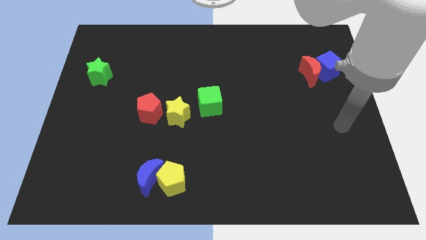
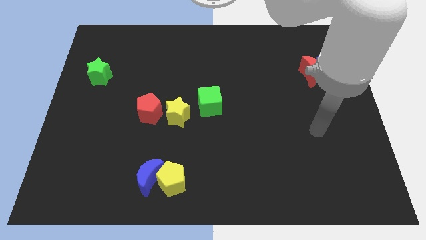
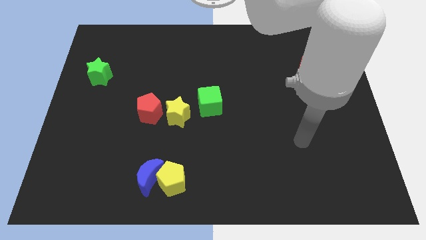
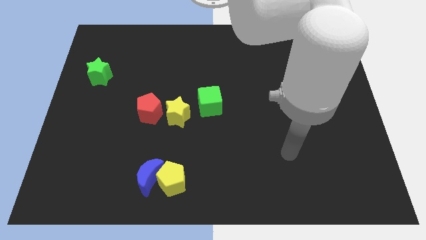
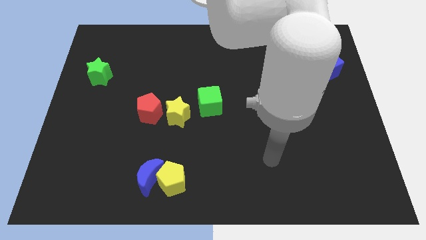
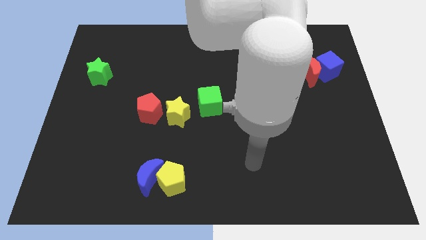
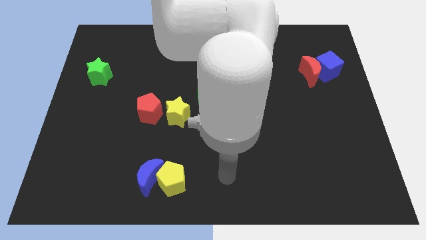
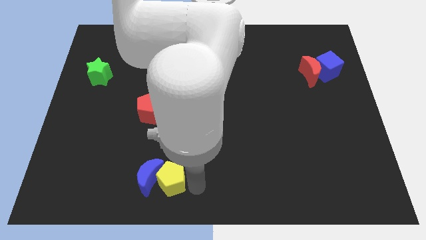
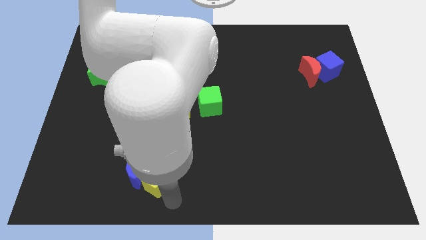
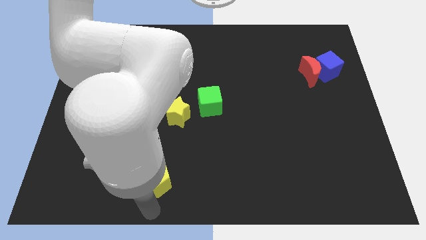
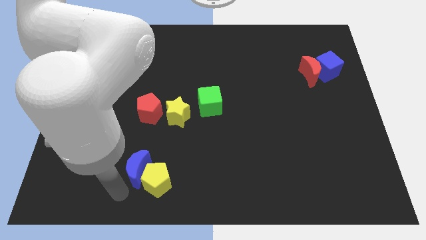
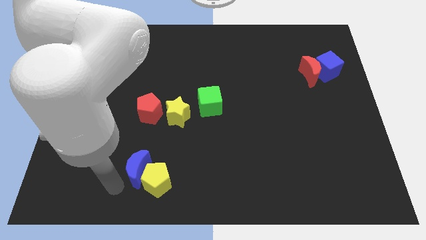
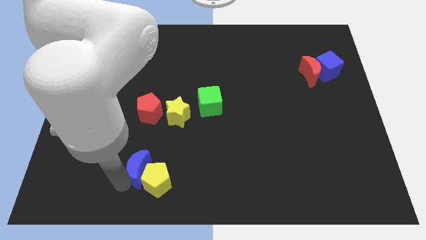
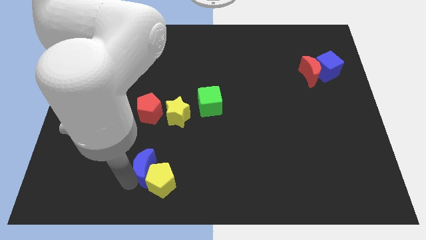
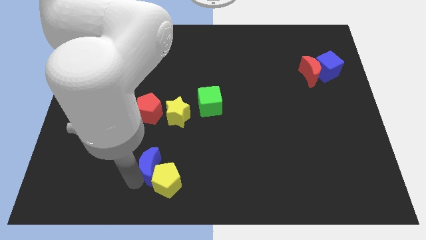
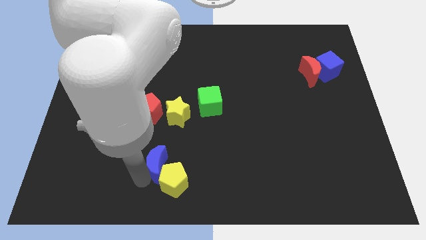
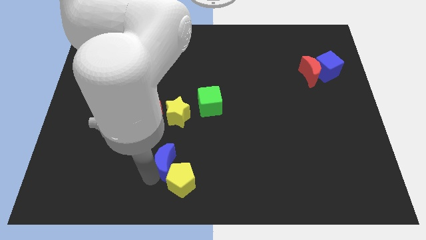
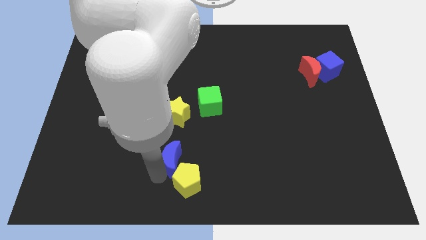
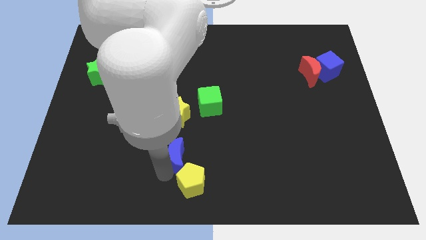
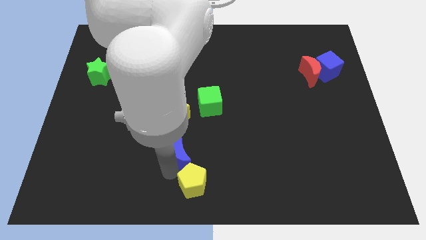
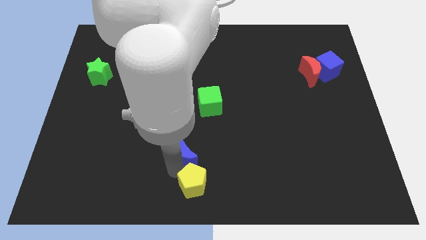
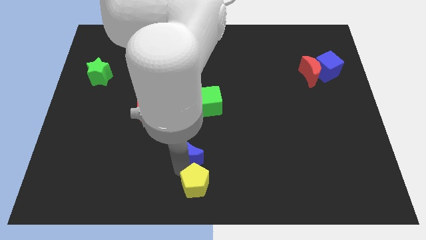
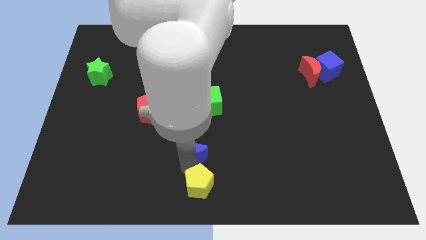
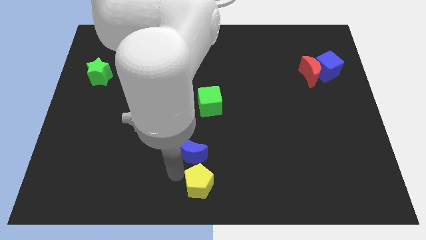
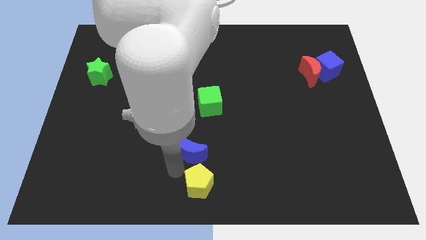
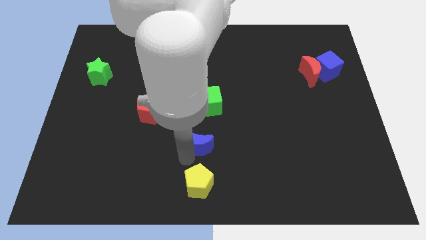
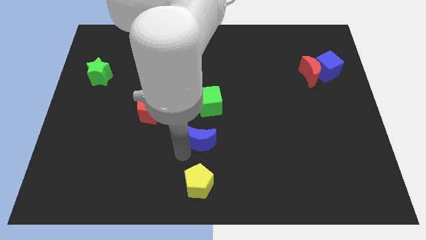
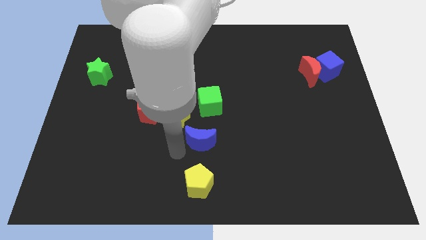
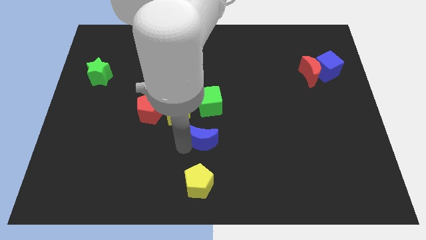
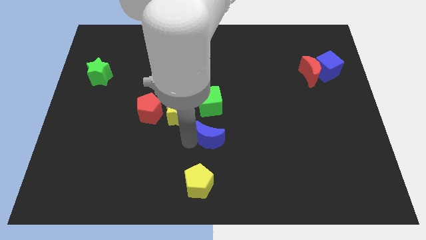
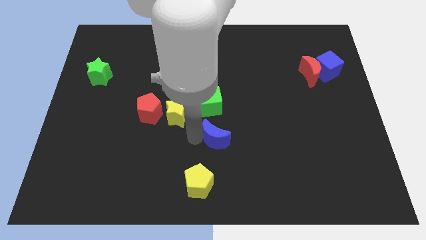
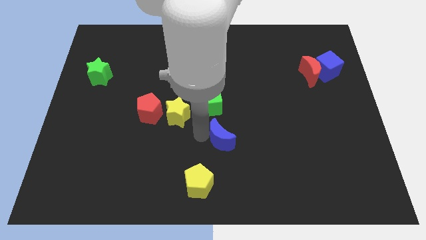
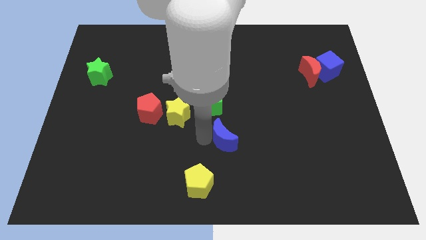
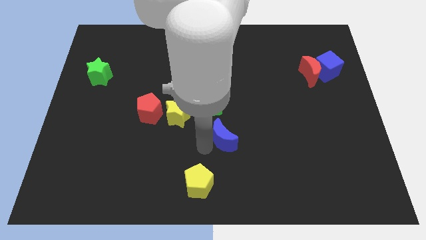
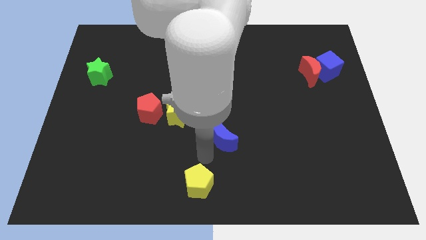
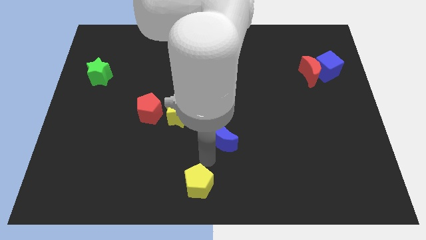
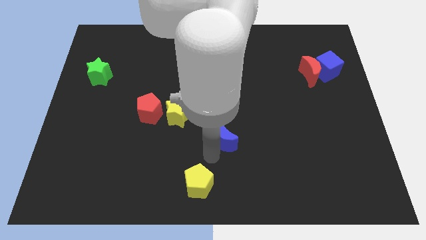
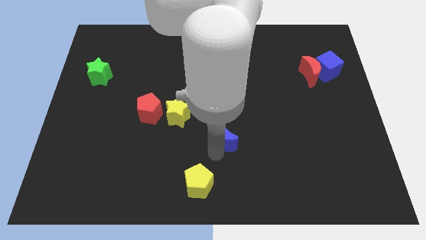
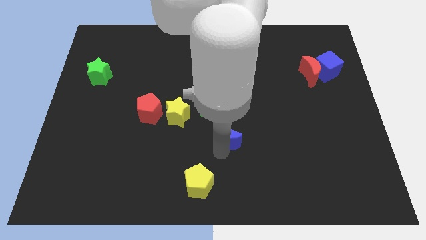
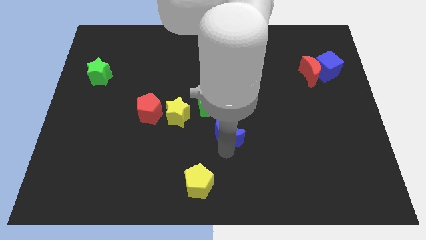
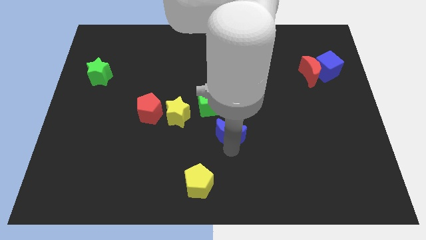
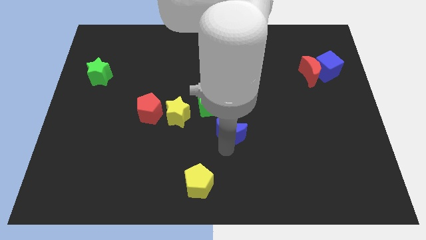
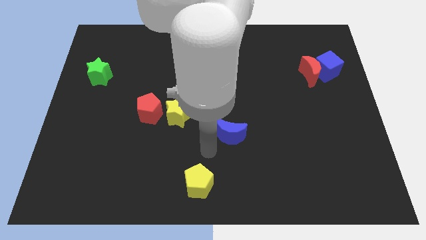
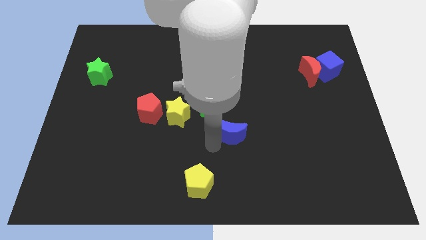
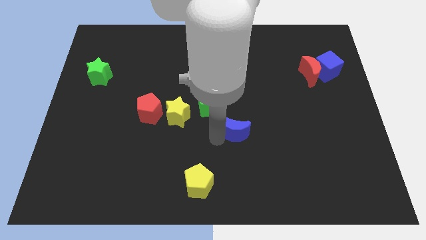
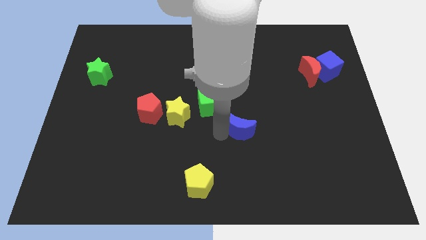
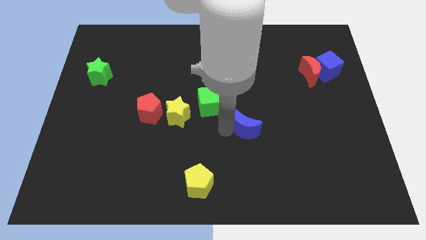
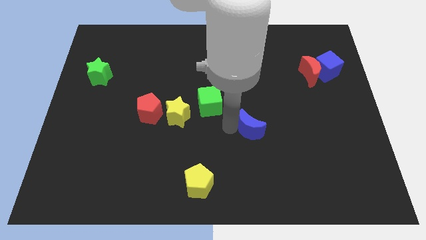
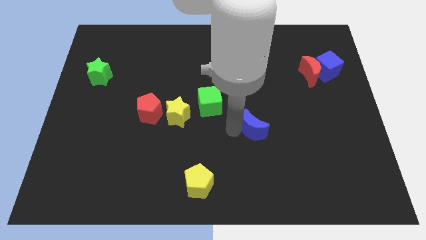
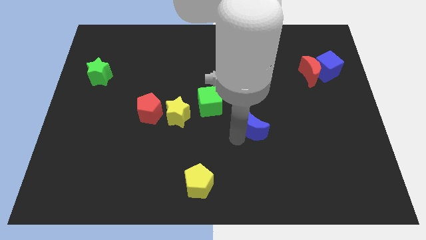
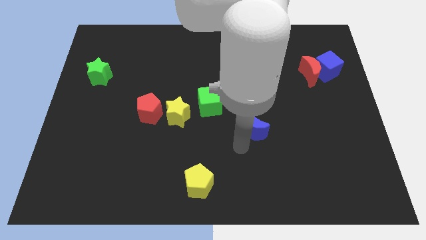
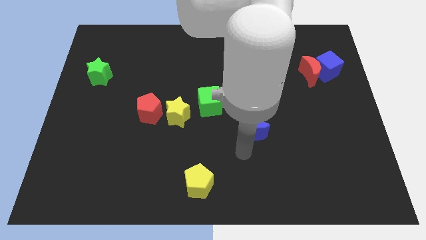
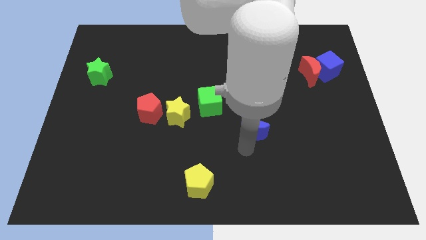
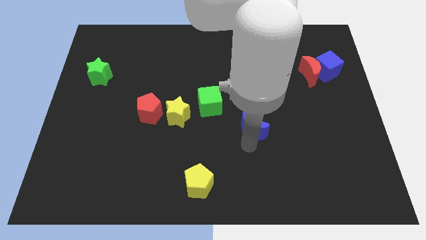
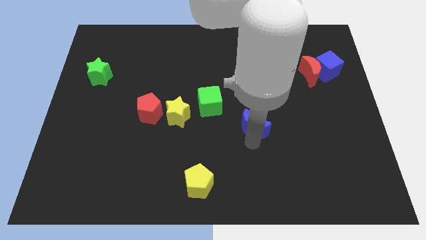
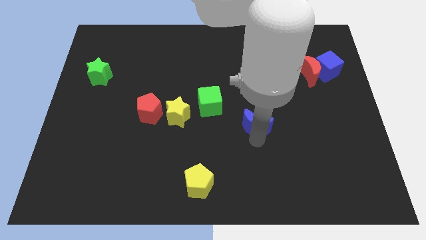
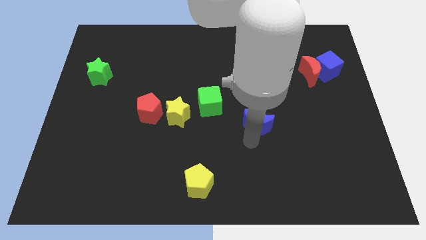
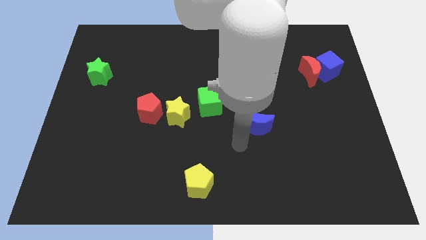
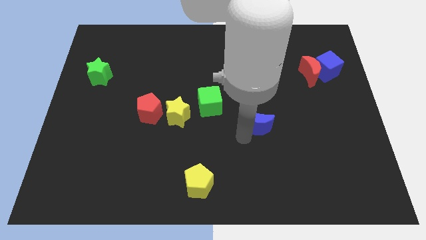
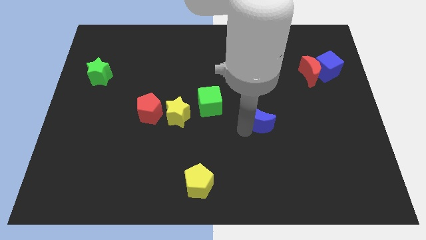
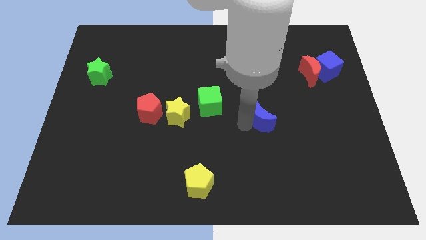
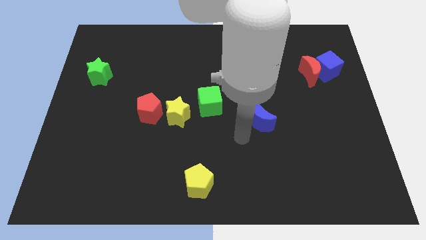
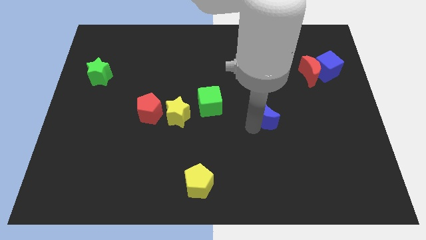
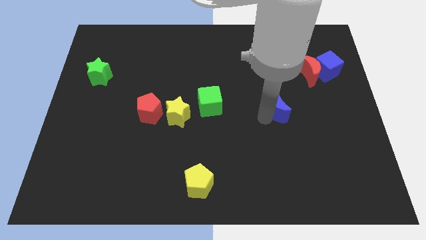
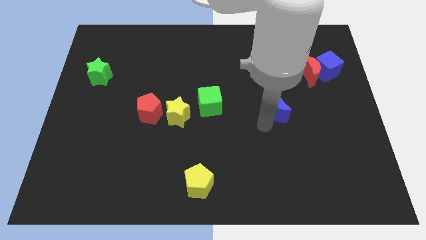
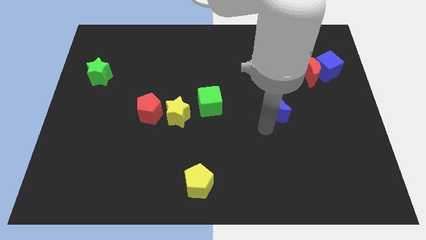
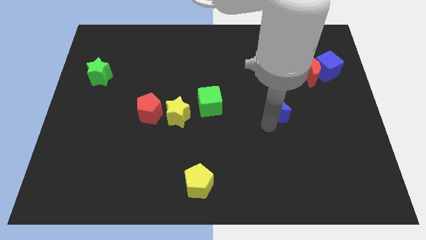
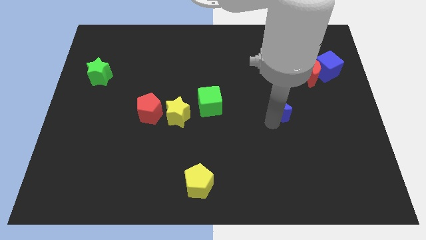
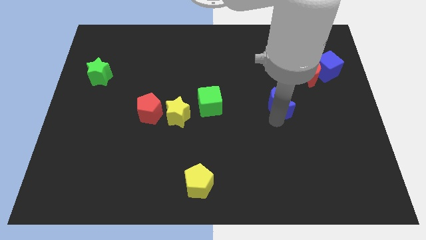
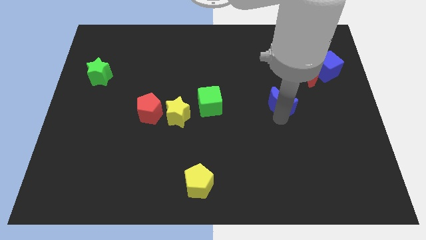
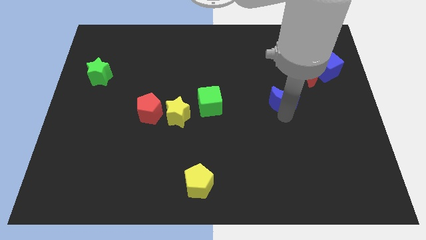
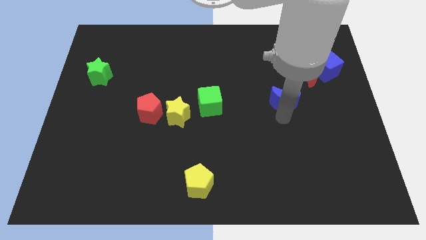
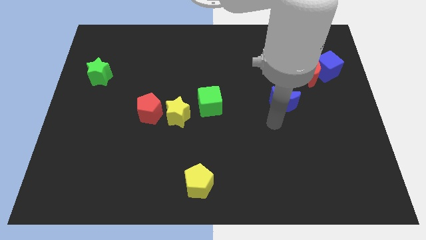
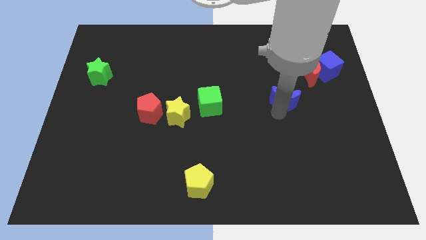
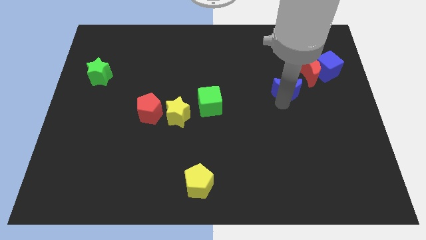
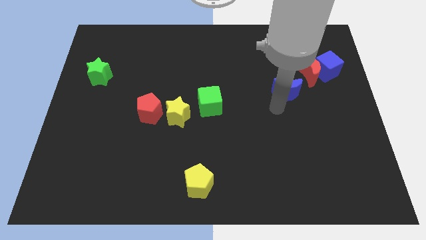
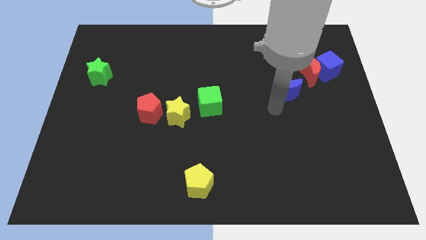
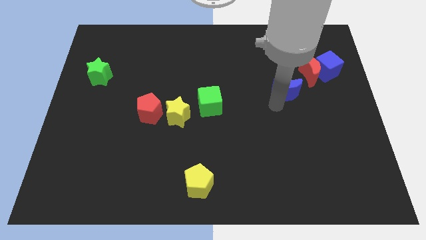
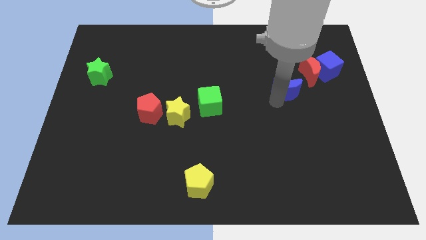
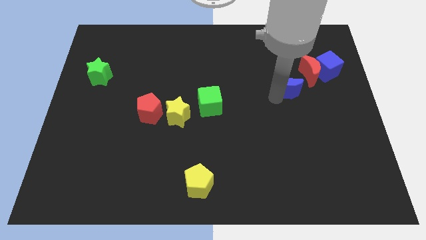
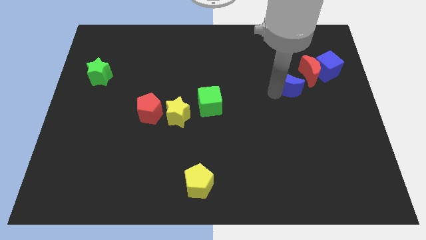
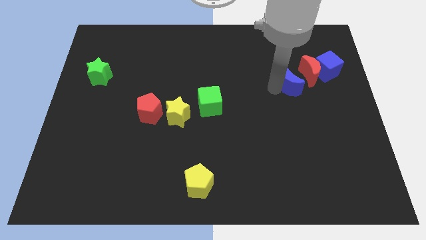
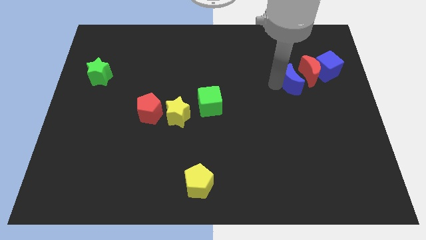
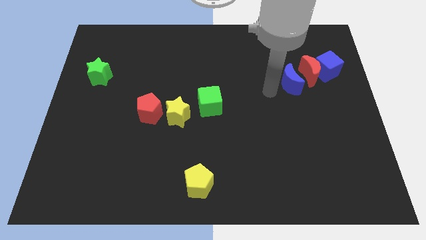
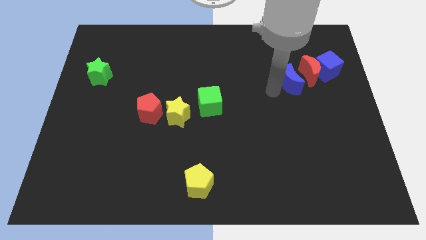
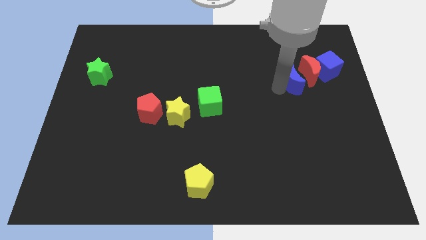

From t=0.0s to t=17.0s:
push the blue moon close to the red moon
